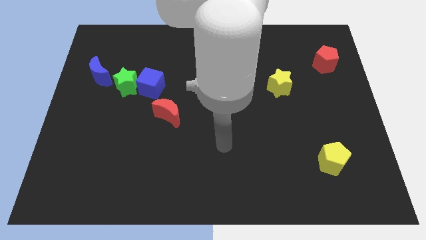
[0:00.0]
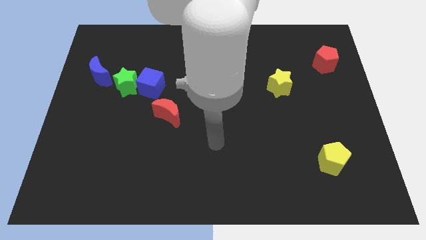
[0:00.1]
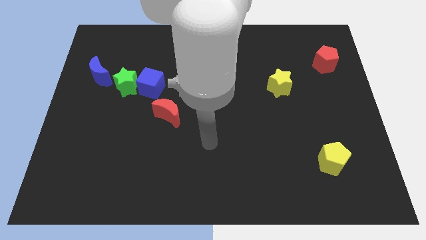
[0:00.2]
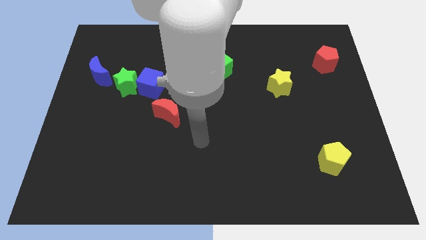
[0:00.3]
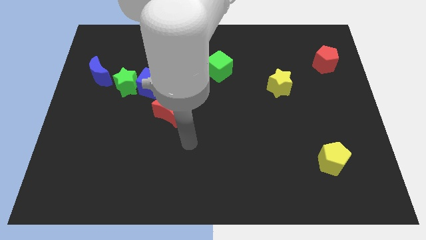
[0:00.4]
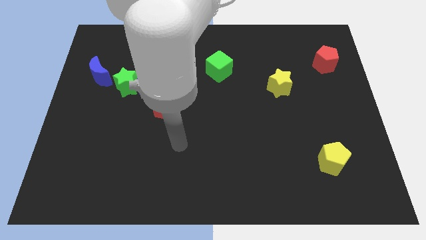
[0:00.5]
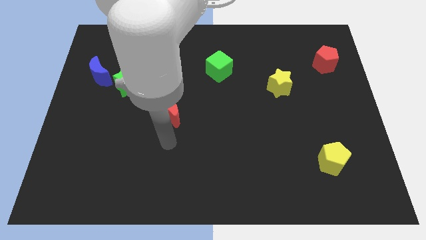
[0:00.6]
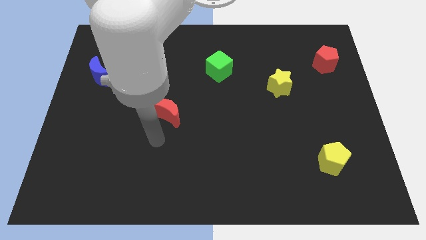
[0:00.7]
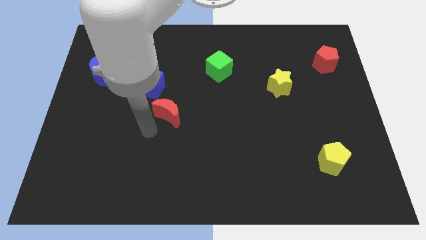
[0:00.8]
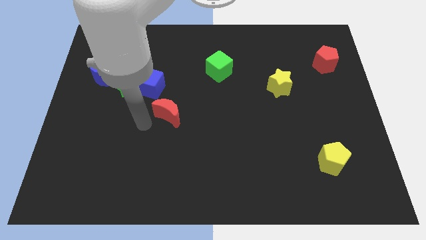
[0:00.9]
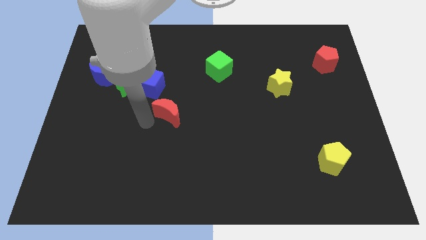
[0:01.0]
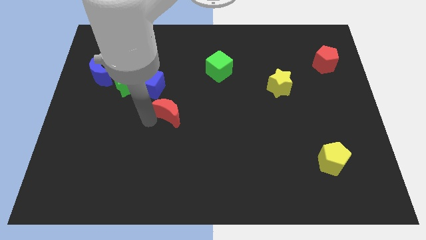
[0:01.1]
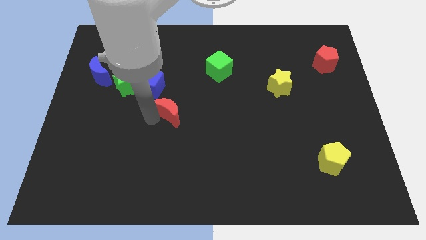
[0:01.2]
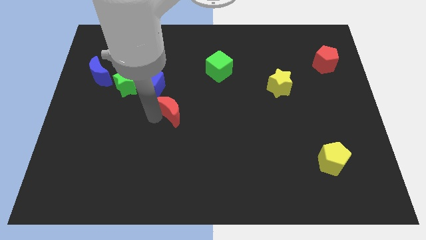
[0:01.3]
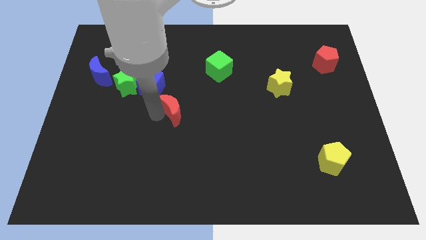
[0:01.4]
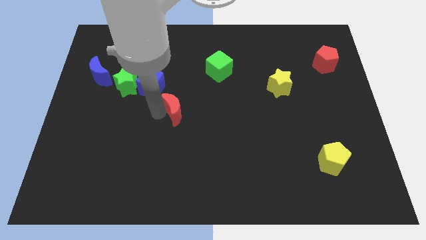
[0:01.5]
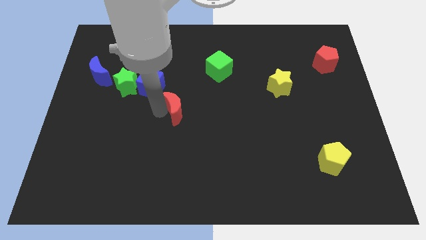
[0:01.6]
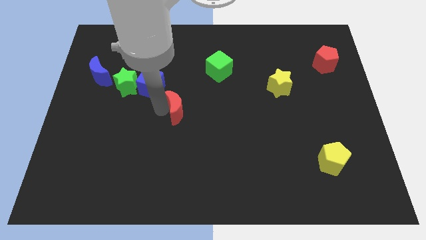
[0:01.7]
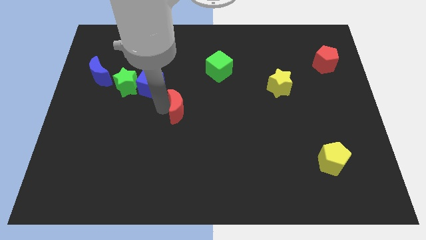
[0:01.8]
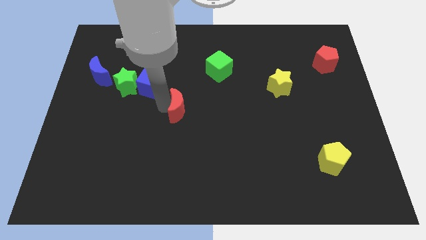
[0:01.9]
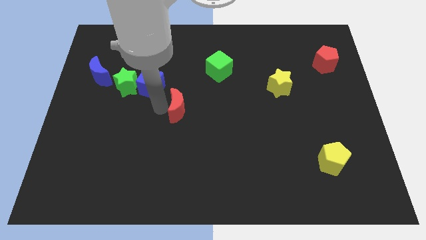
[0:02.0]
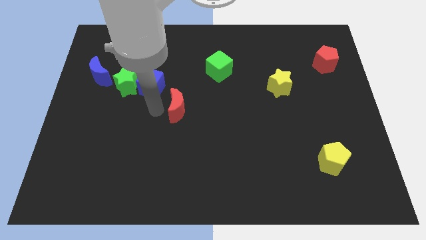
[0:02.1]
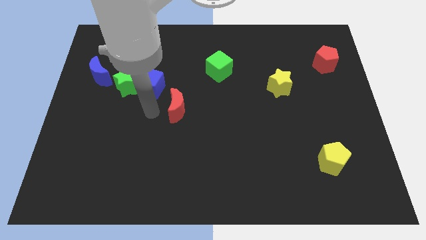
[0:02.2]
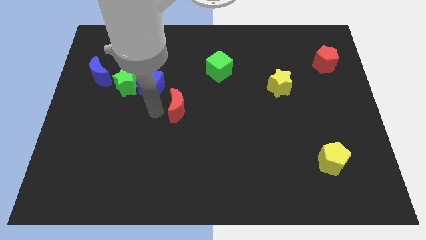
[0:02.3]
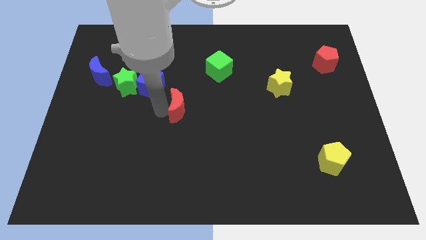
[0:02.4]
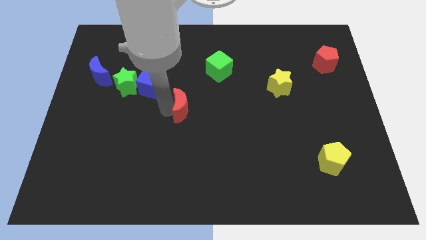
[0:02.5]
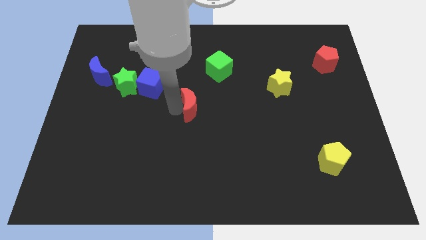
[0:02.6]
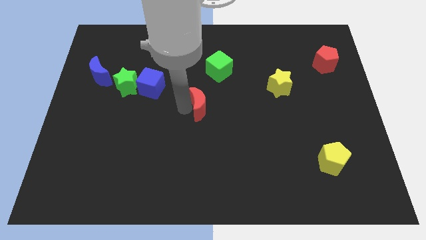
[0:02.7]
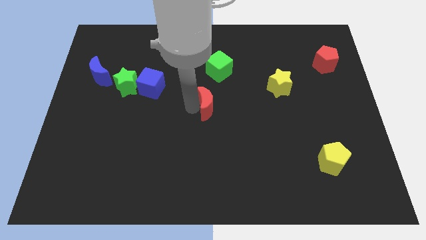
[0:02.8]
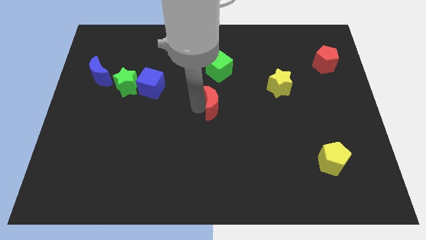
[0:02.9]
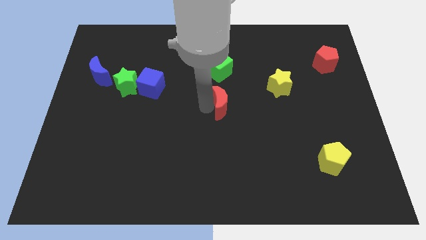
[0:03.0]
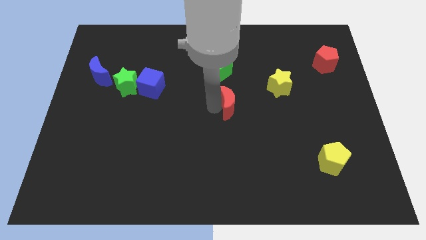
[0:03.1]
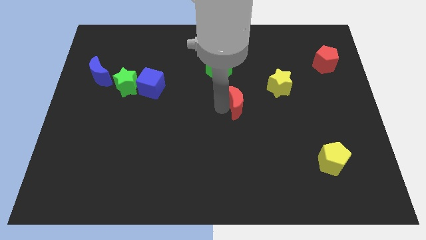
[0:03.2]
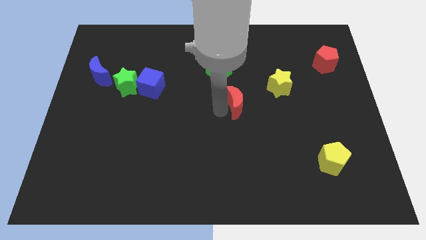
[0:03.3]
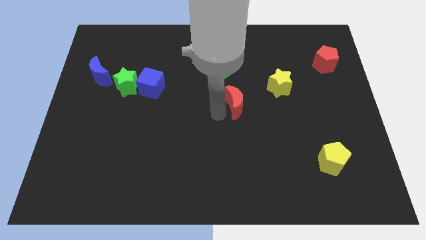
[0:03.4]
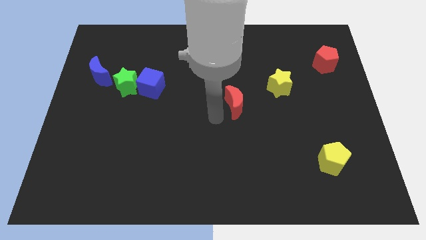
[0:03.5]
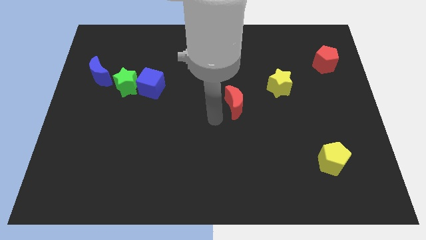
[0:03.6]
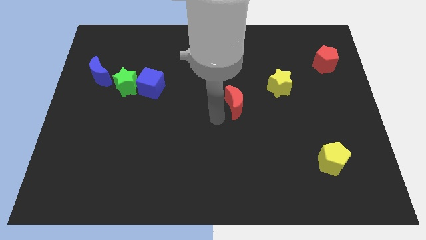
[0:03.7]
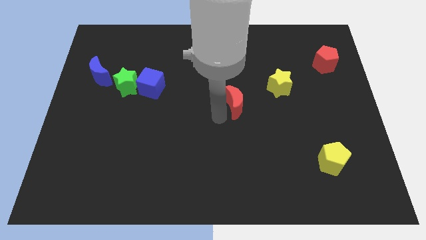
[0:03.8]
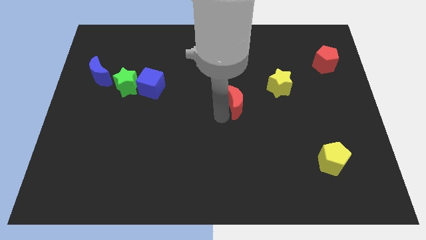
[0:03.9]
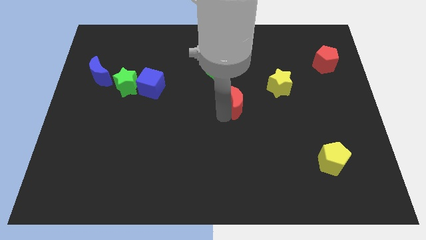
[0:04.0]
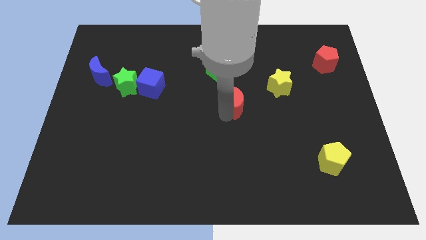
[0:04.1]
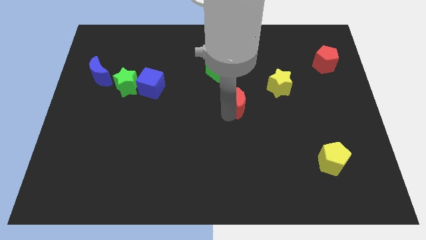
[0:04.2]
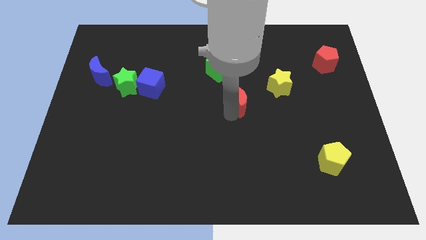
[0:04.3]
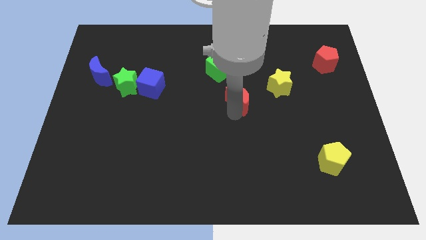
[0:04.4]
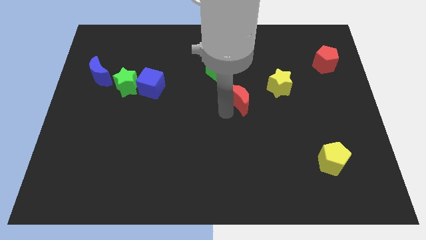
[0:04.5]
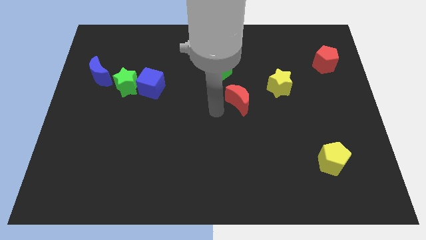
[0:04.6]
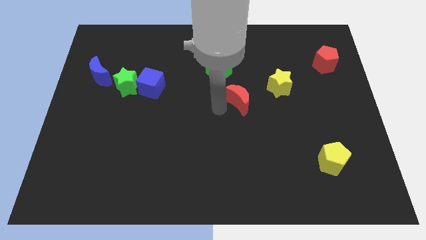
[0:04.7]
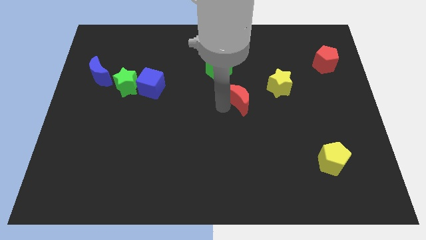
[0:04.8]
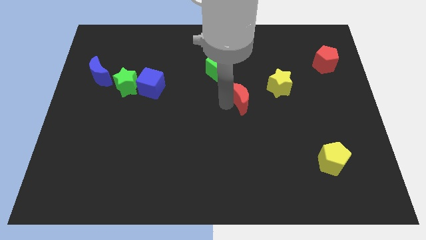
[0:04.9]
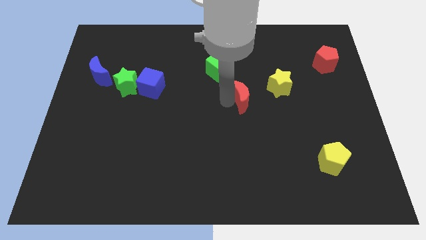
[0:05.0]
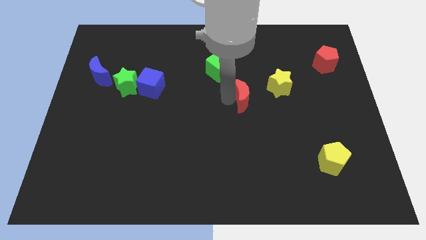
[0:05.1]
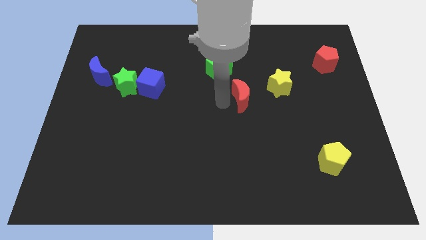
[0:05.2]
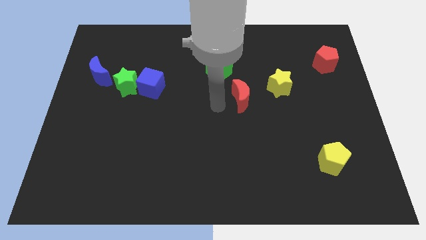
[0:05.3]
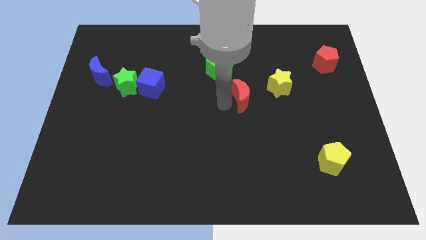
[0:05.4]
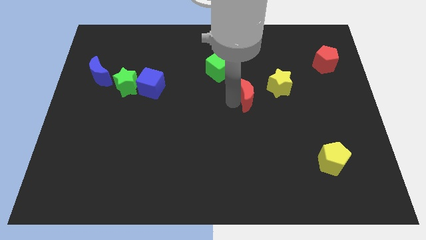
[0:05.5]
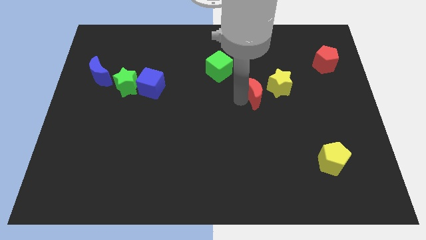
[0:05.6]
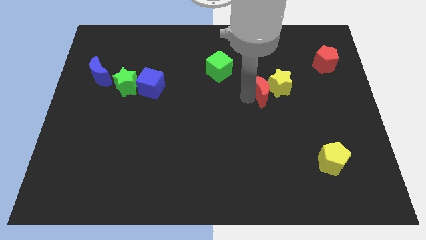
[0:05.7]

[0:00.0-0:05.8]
move the red moon close to the yellow star
